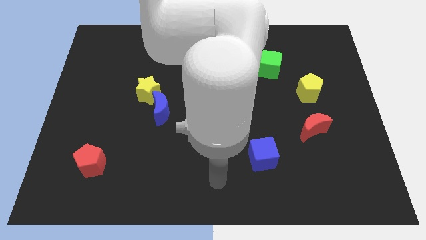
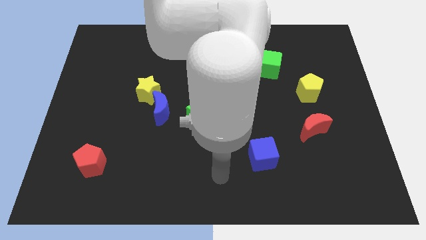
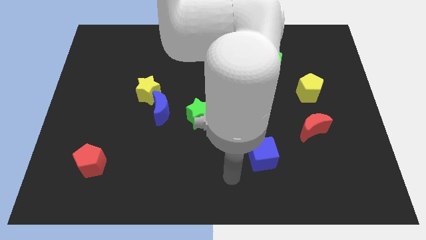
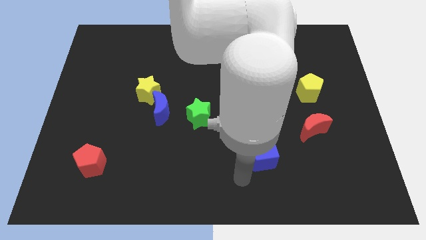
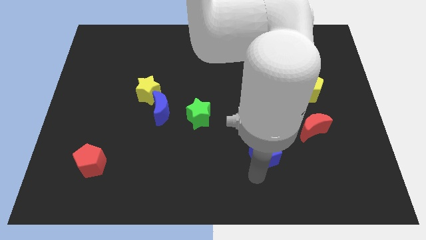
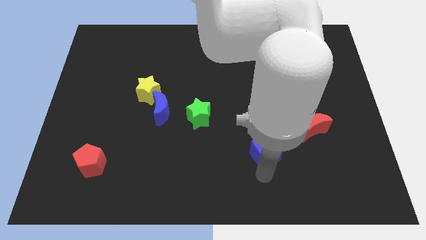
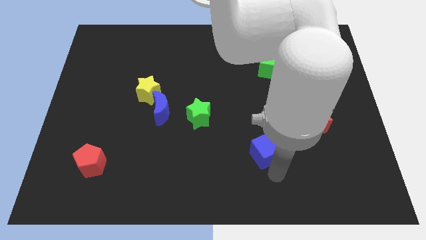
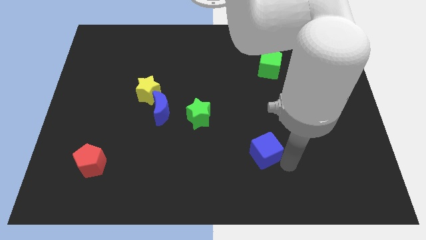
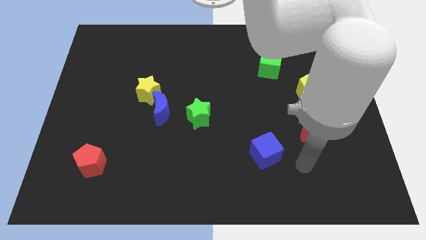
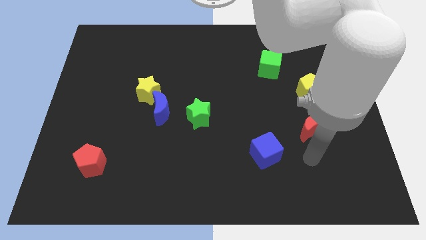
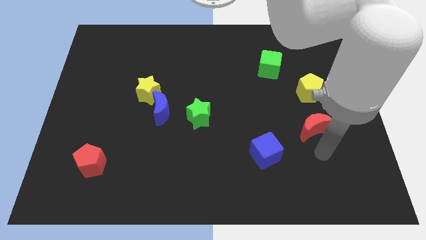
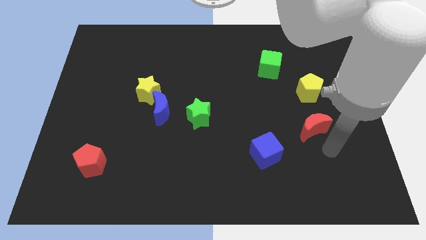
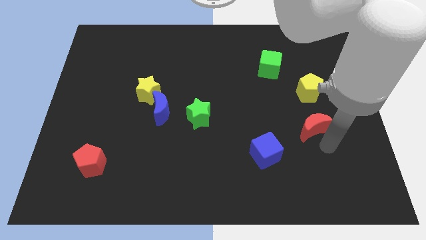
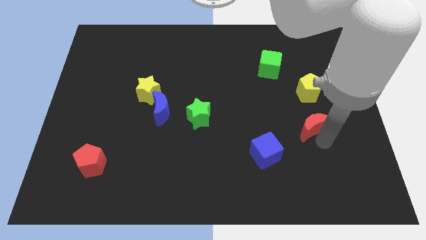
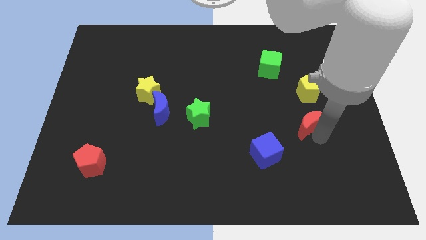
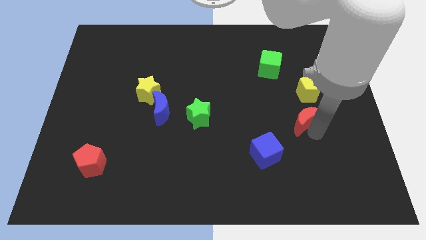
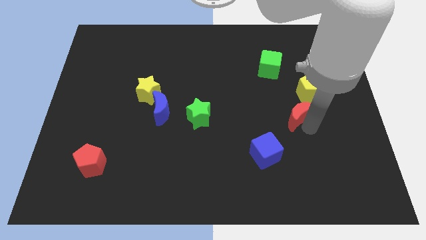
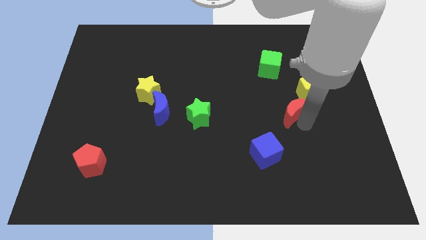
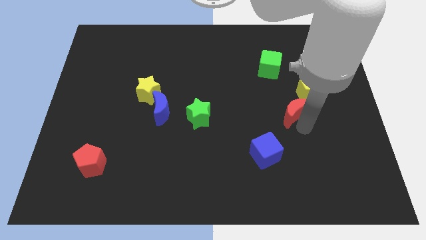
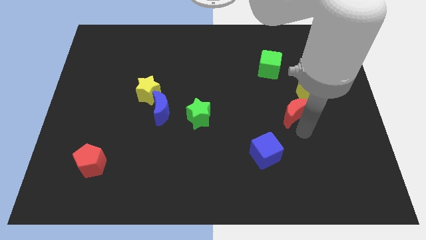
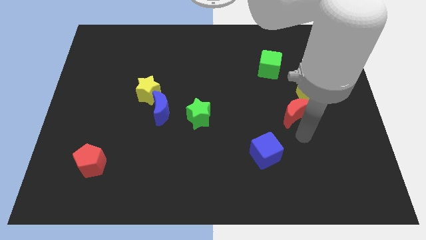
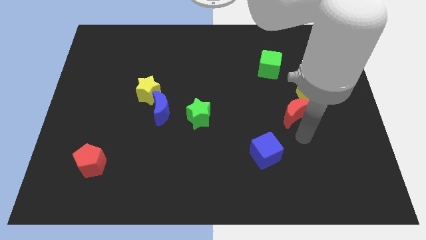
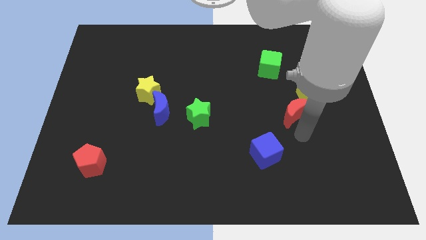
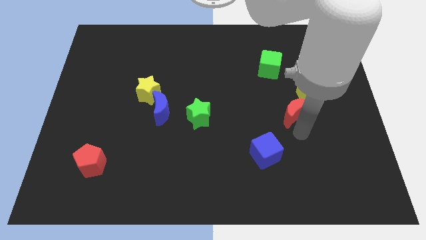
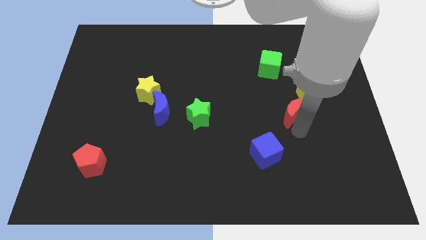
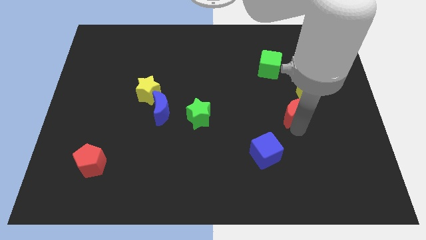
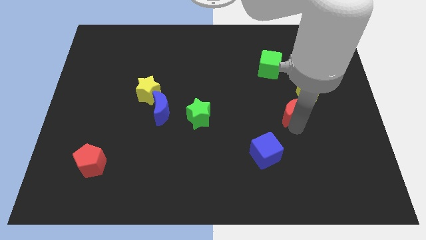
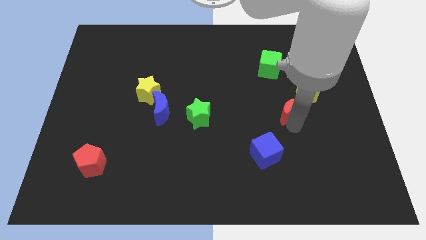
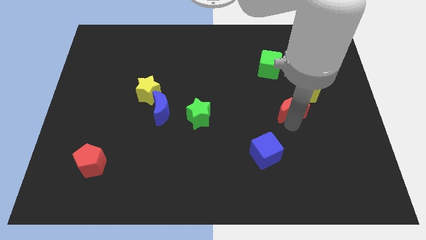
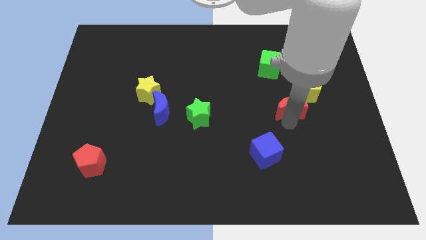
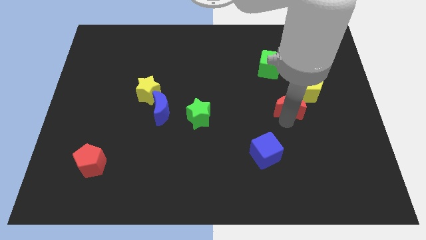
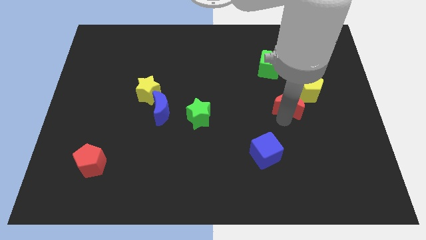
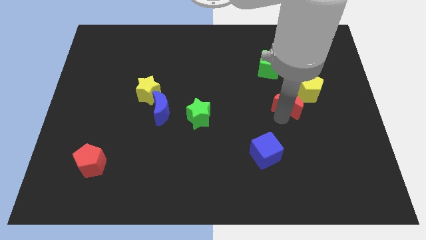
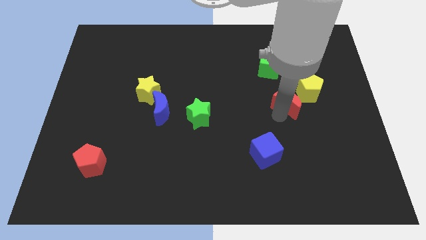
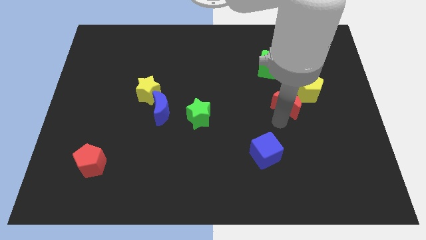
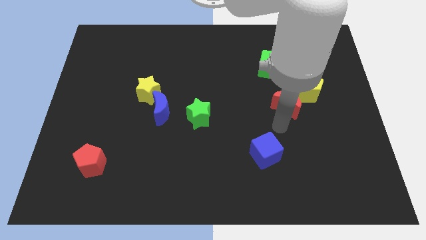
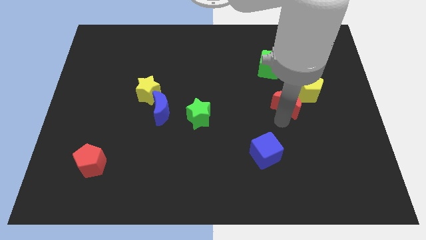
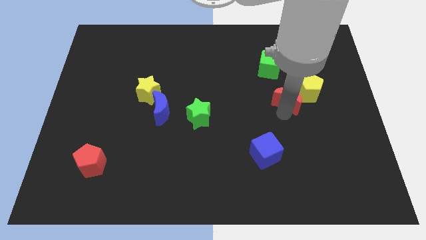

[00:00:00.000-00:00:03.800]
slide the red moon upwards a bit

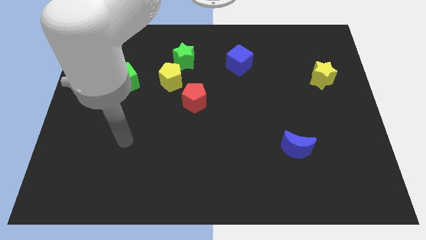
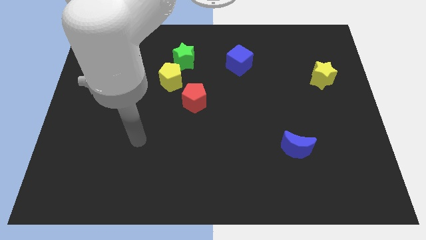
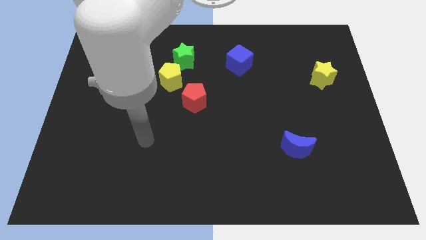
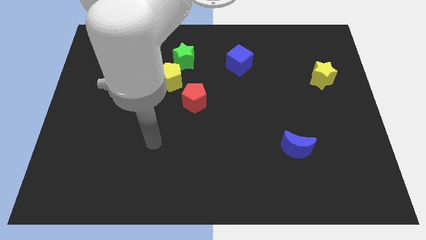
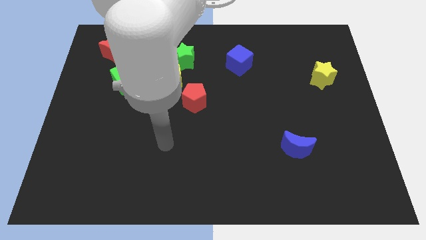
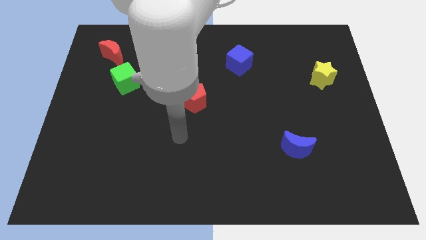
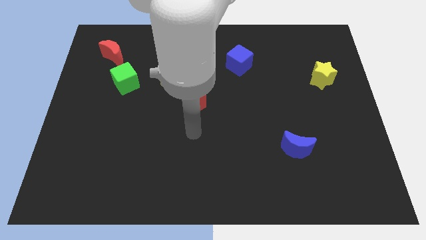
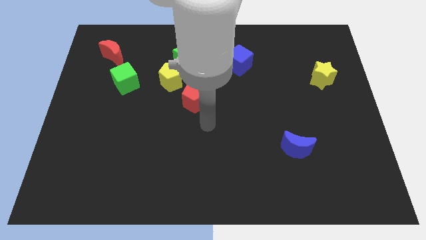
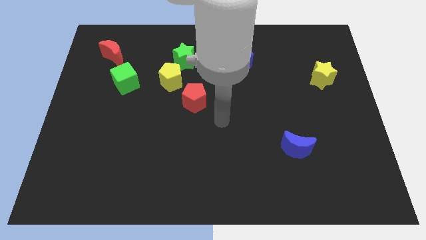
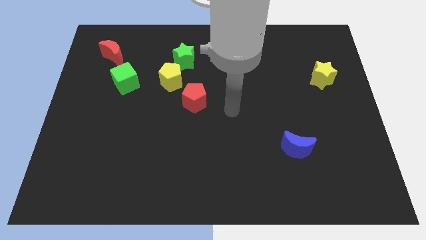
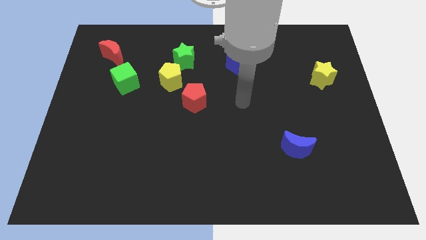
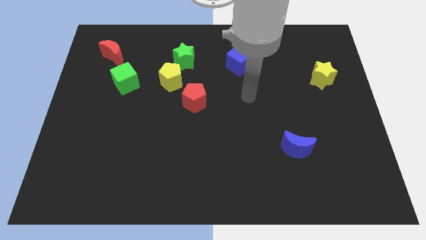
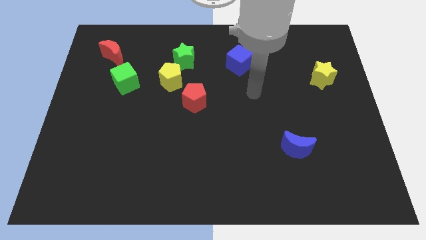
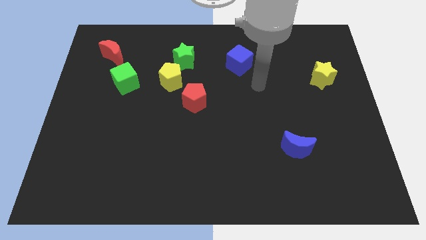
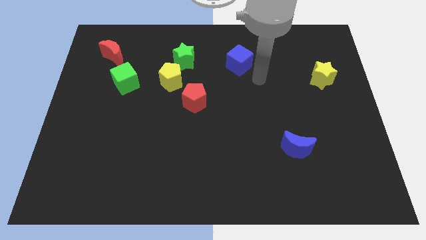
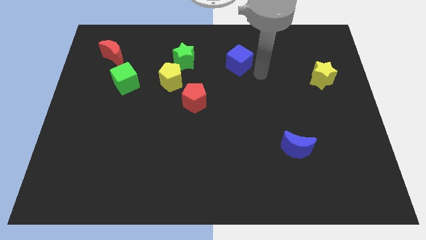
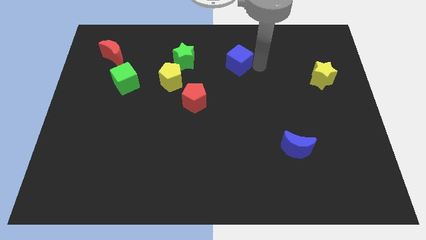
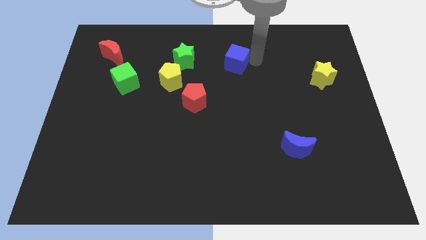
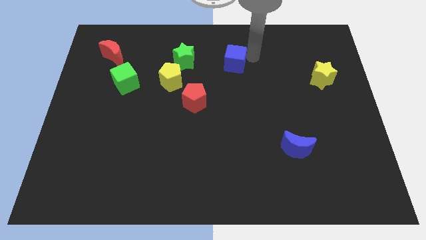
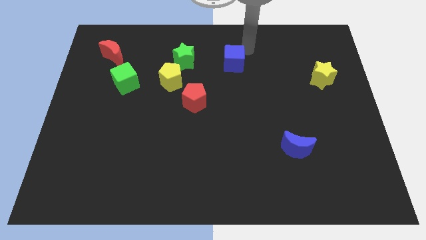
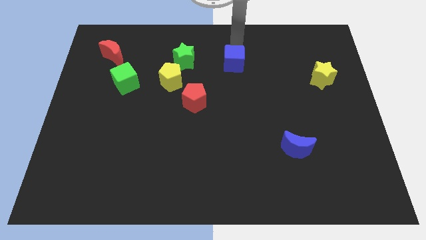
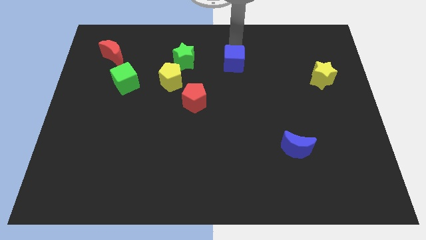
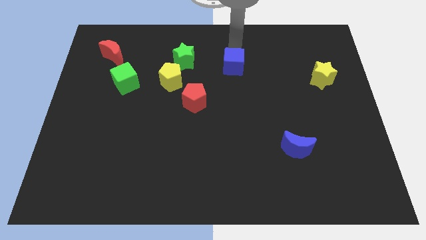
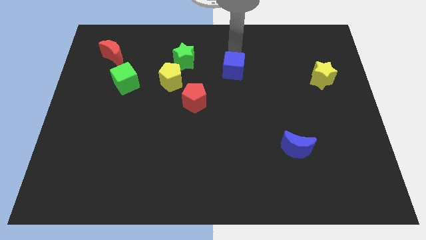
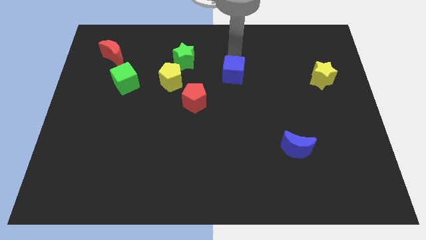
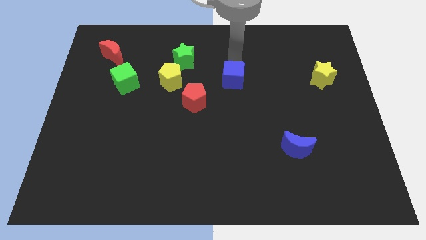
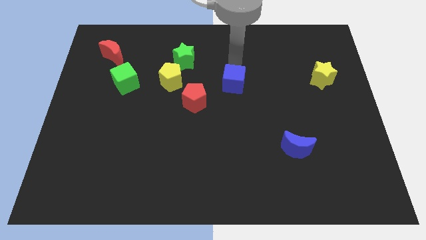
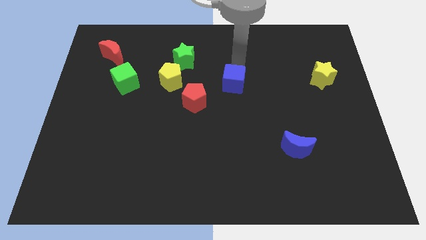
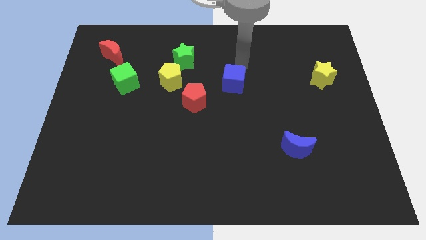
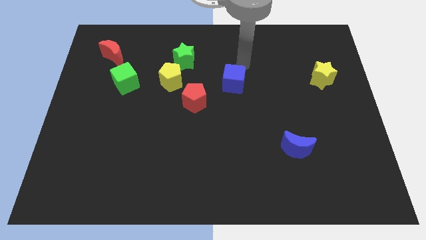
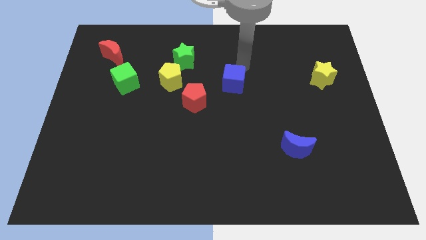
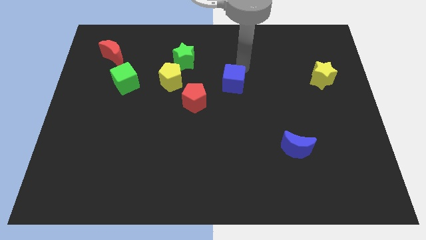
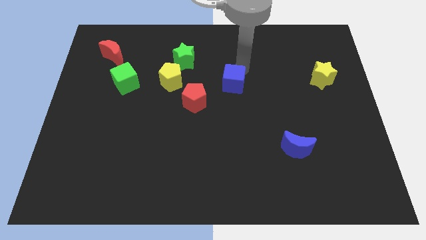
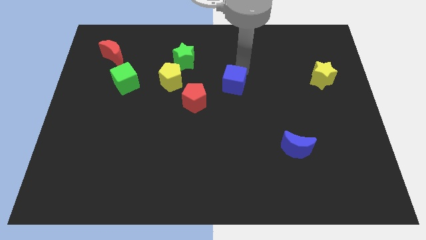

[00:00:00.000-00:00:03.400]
move the blue cube a bit down

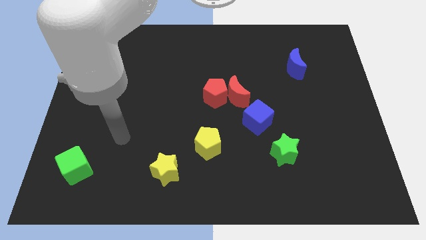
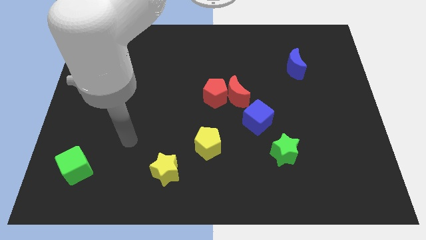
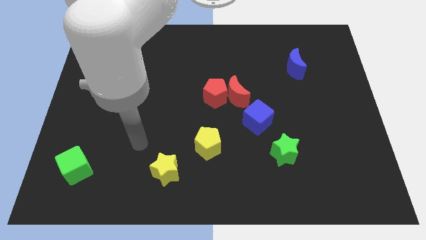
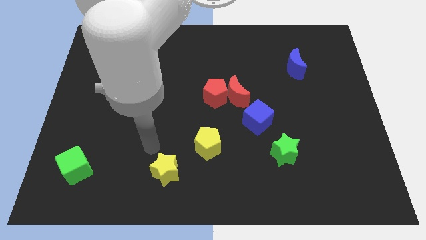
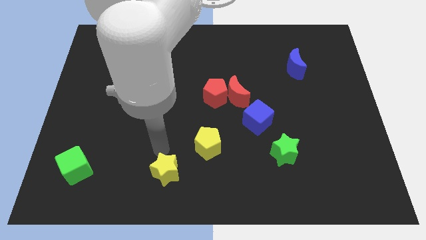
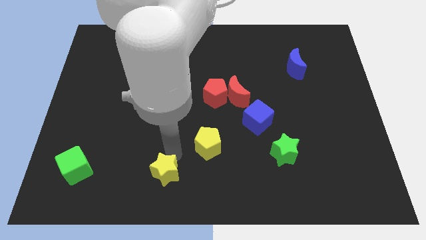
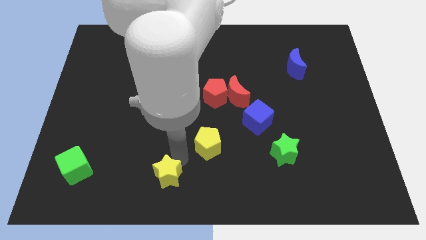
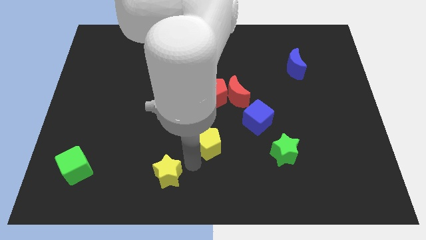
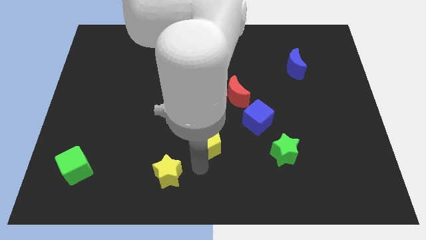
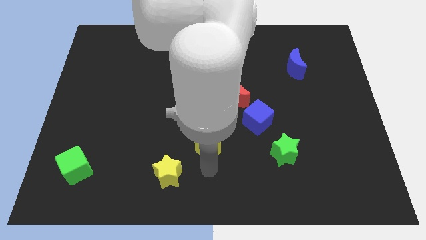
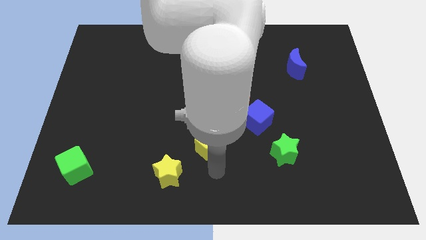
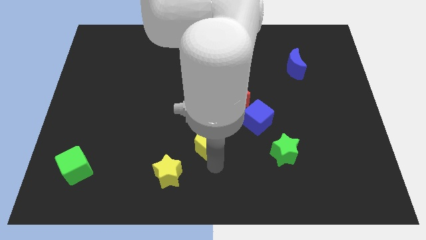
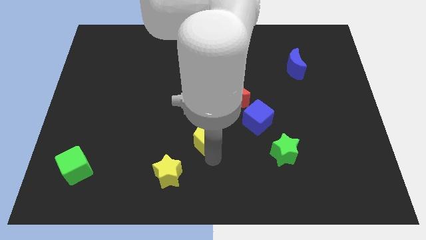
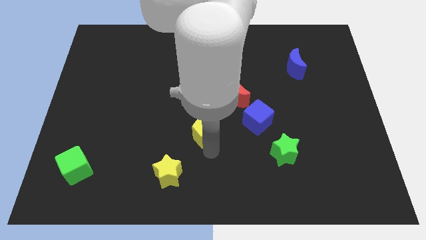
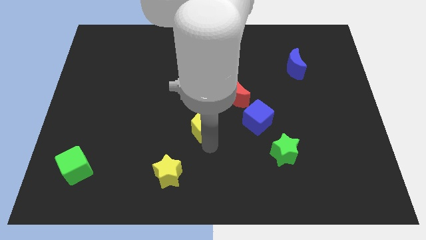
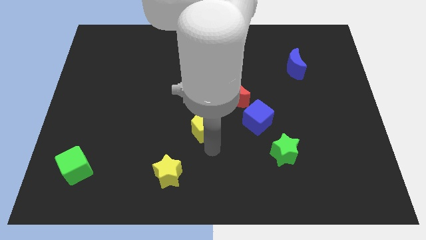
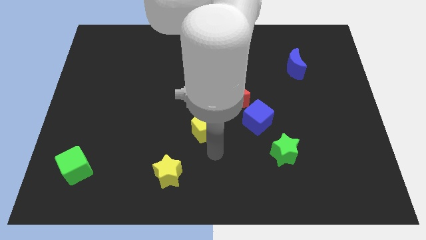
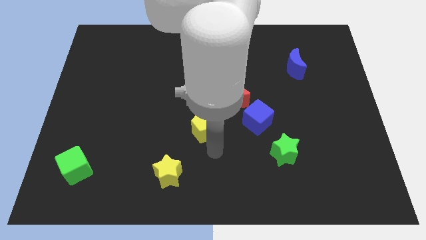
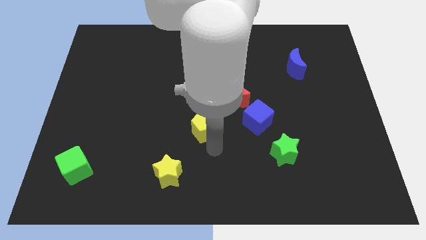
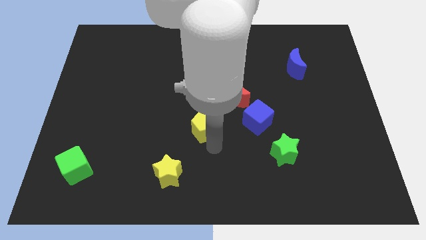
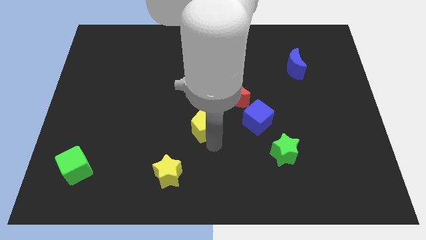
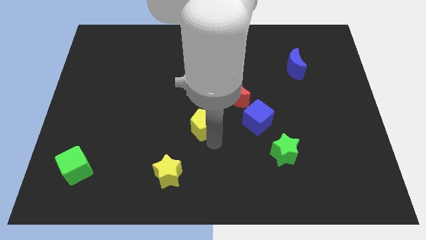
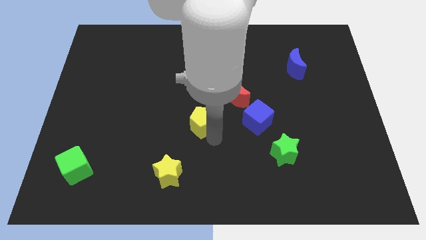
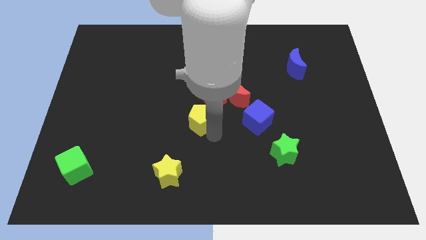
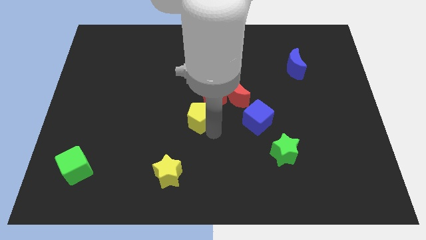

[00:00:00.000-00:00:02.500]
slightly push the yellow pentagon upwards
